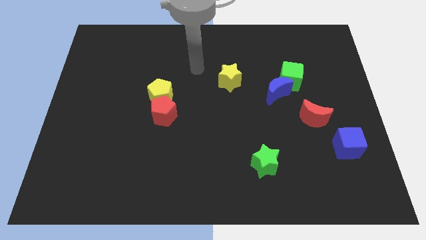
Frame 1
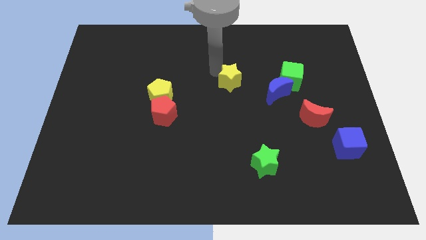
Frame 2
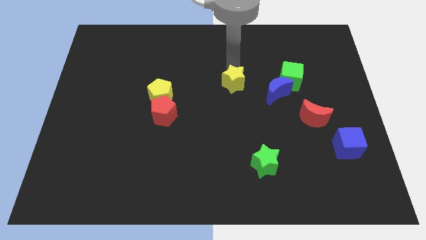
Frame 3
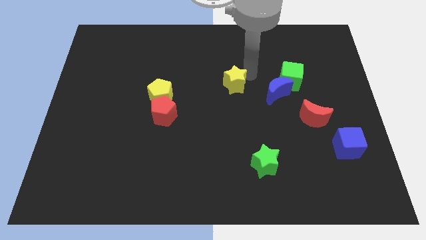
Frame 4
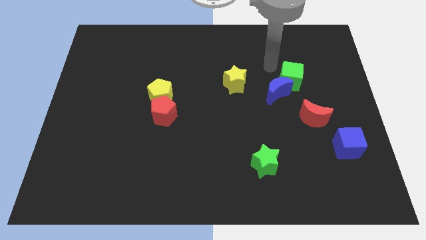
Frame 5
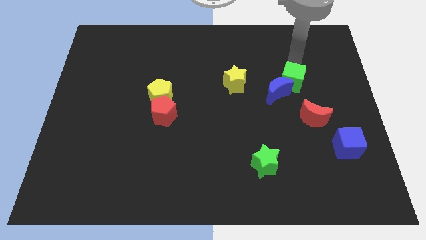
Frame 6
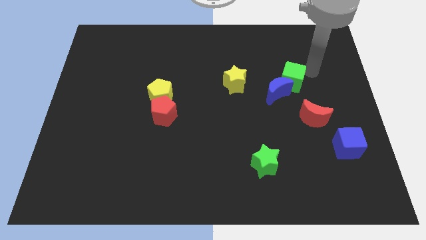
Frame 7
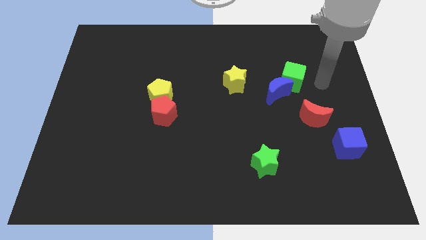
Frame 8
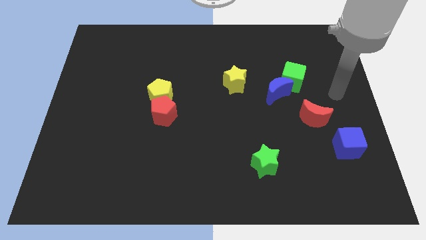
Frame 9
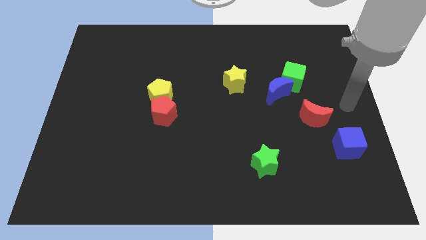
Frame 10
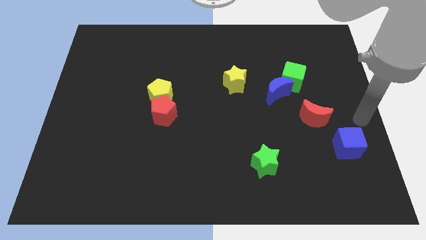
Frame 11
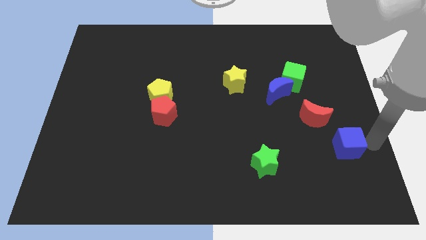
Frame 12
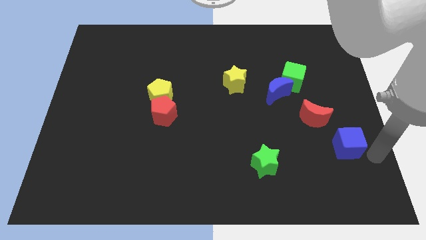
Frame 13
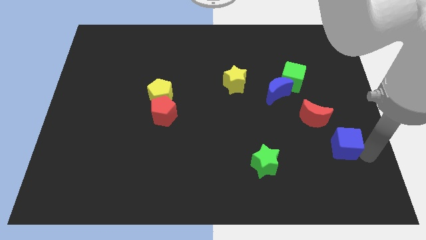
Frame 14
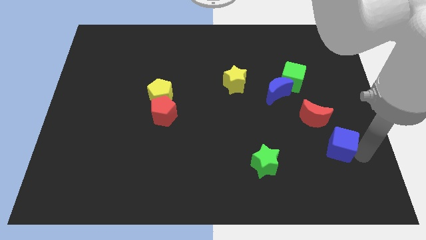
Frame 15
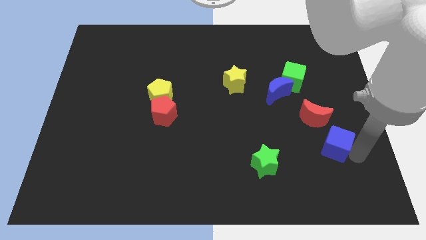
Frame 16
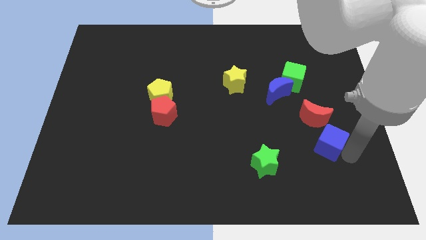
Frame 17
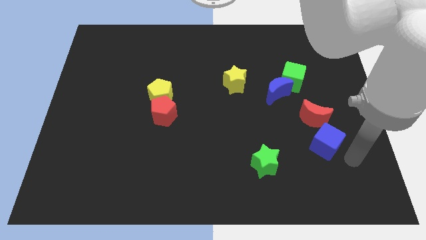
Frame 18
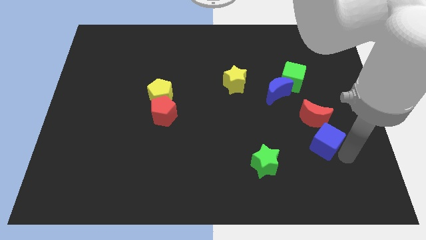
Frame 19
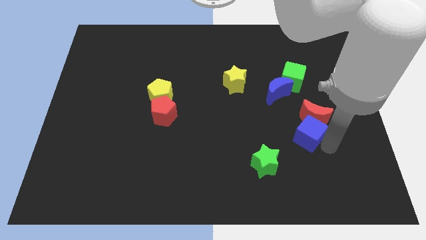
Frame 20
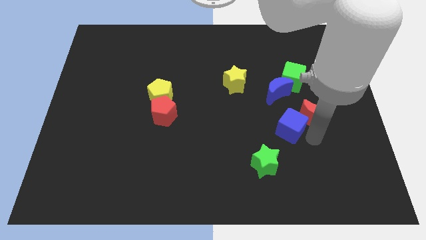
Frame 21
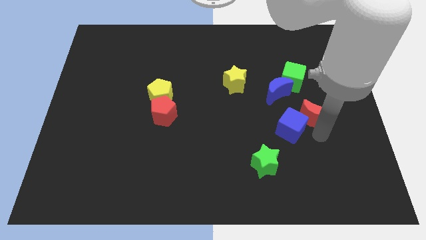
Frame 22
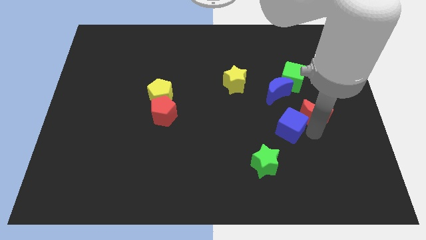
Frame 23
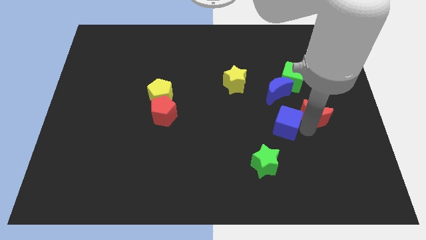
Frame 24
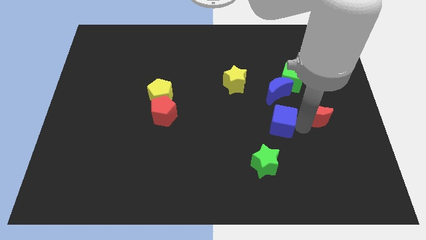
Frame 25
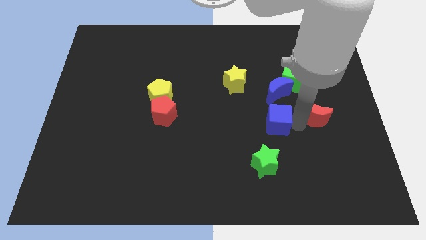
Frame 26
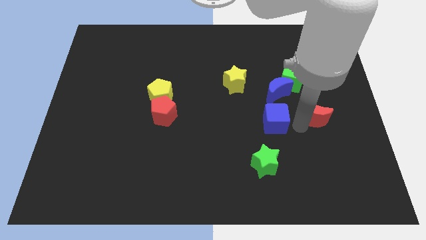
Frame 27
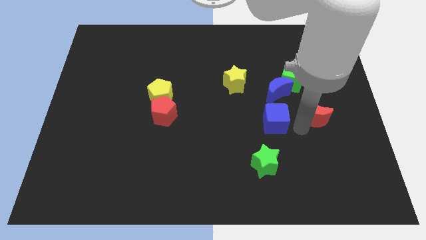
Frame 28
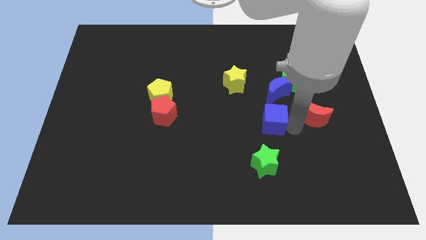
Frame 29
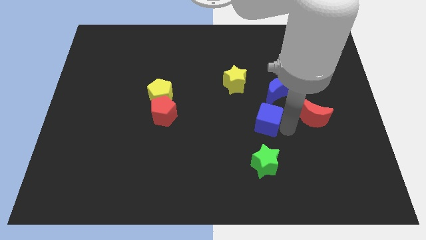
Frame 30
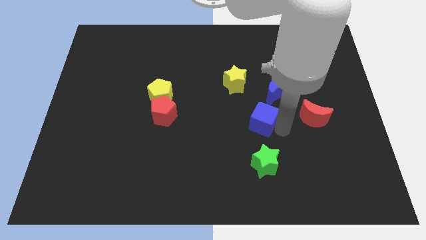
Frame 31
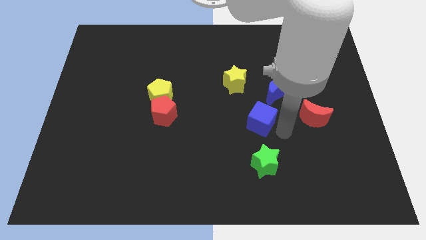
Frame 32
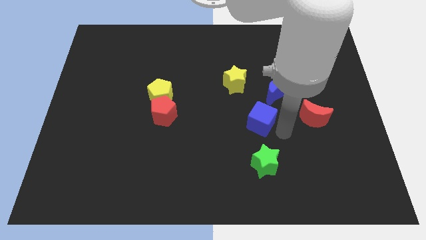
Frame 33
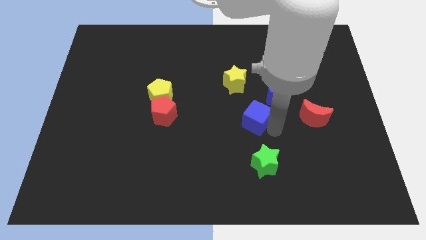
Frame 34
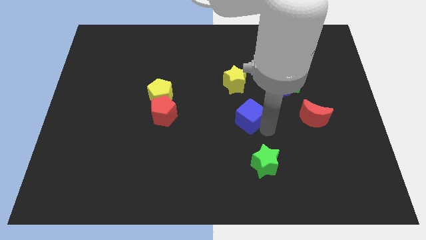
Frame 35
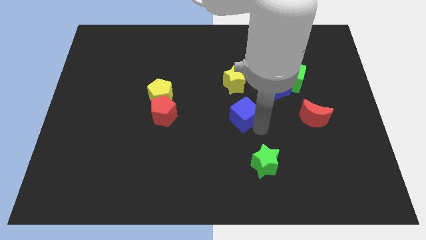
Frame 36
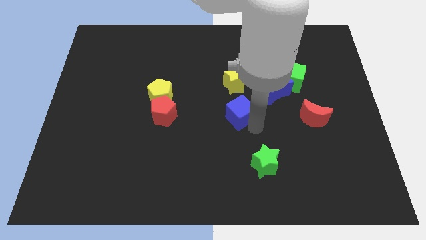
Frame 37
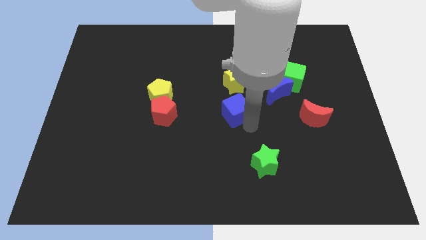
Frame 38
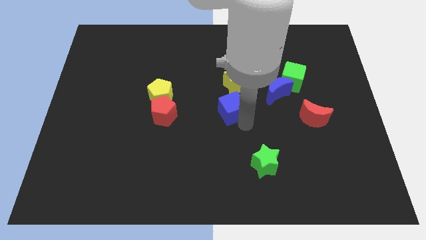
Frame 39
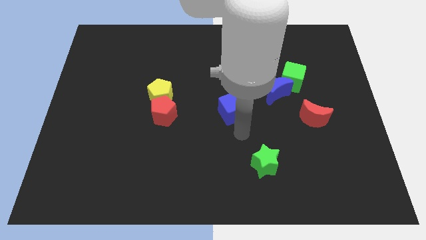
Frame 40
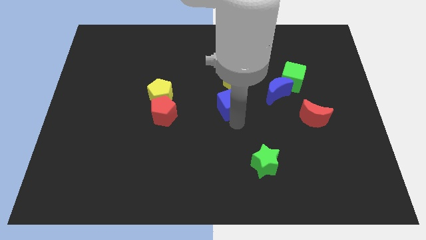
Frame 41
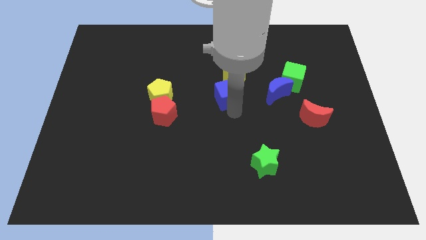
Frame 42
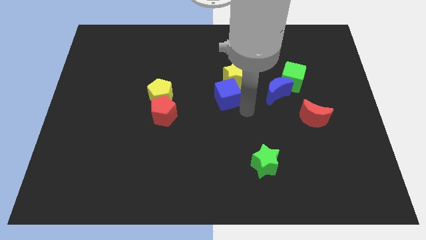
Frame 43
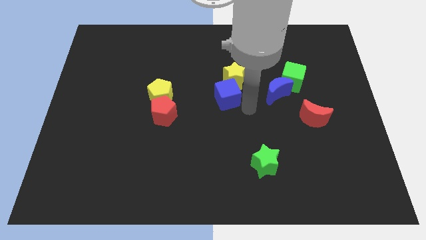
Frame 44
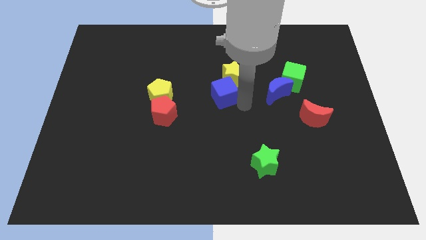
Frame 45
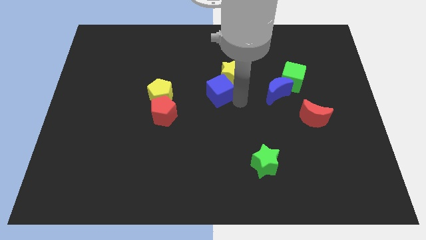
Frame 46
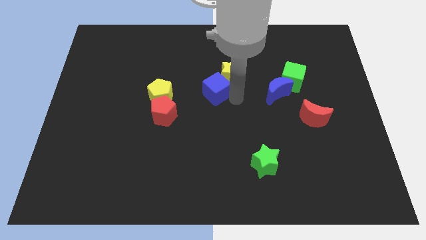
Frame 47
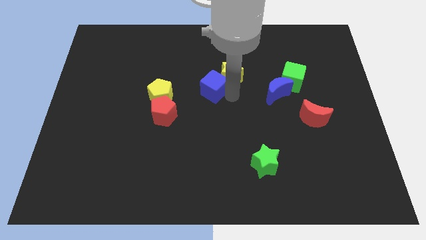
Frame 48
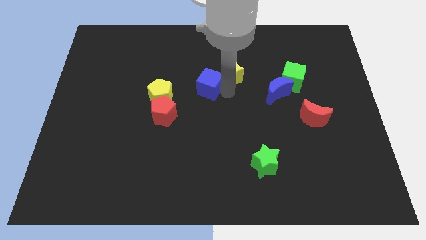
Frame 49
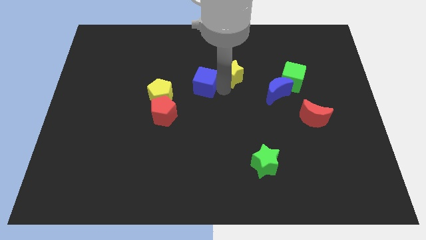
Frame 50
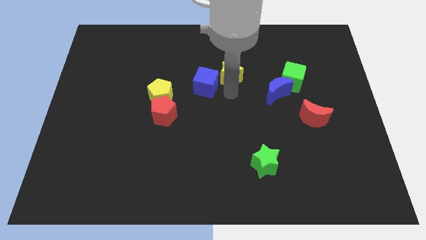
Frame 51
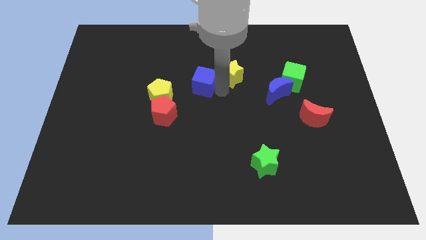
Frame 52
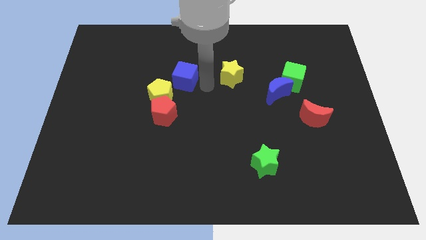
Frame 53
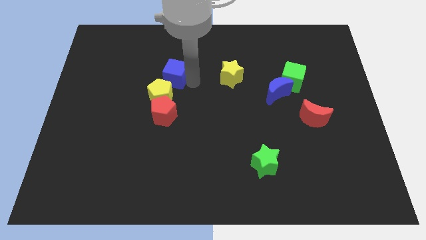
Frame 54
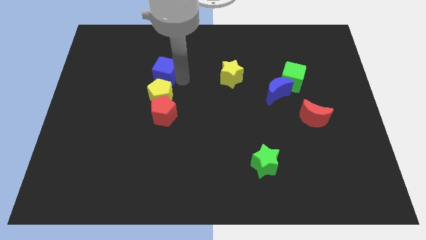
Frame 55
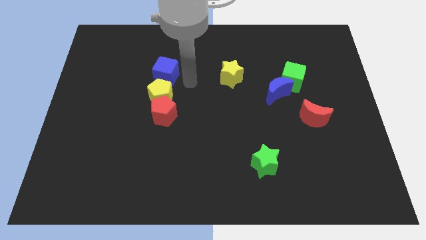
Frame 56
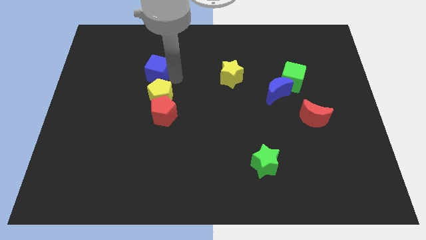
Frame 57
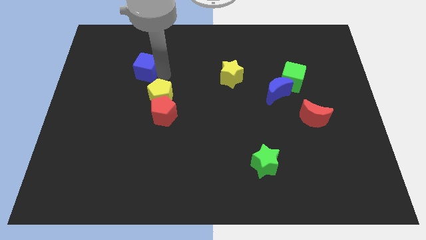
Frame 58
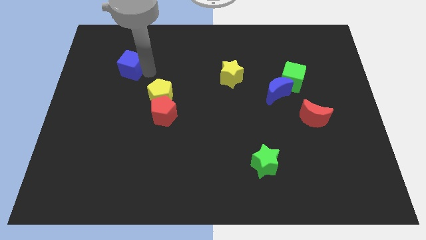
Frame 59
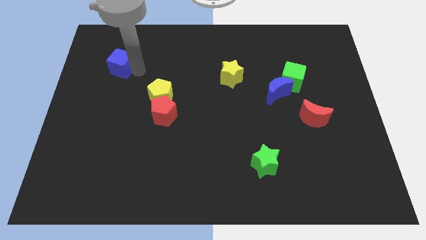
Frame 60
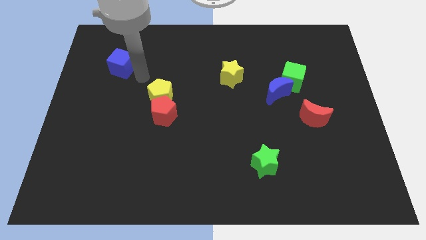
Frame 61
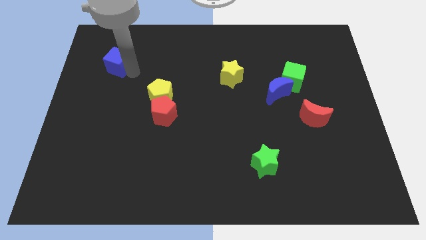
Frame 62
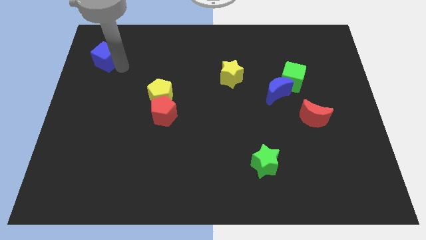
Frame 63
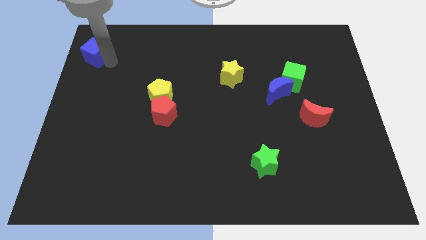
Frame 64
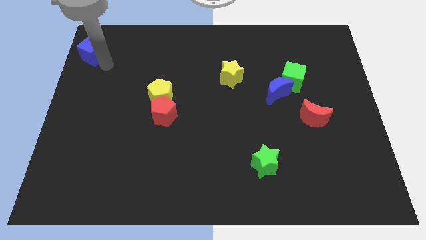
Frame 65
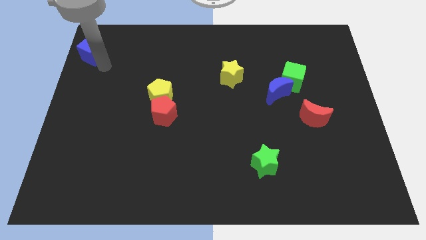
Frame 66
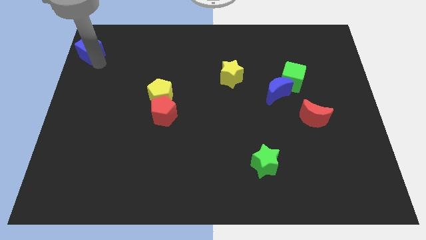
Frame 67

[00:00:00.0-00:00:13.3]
push the blue cube to the top left

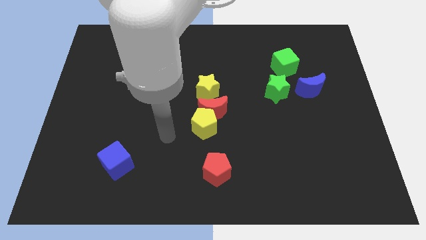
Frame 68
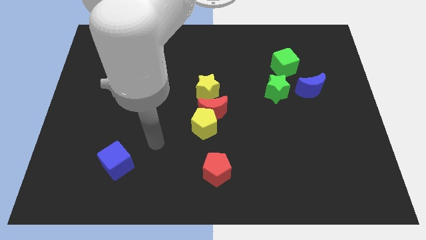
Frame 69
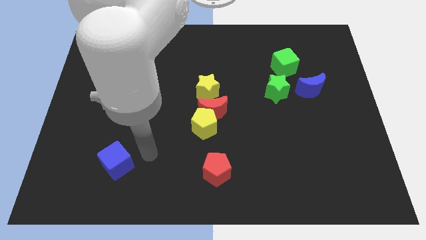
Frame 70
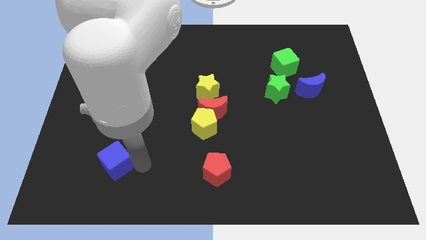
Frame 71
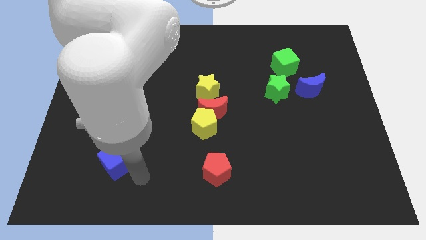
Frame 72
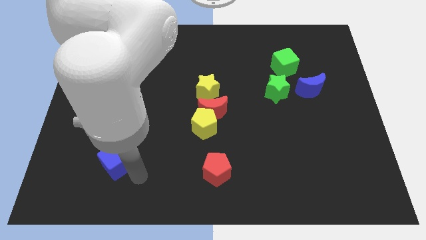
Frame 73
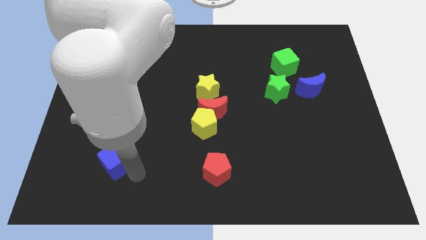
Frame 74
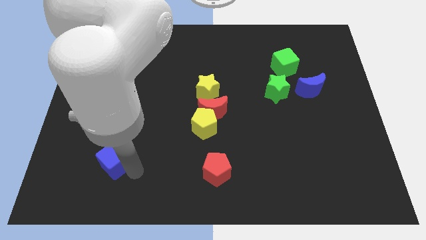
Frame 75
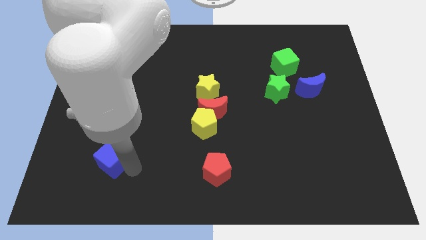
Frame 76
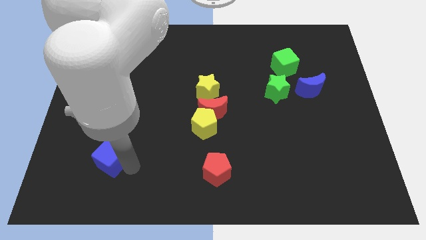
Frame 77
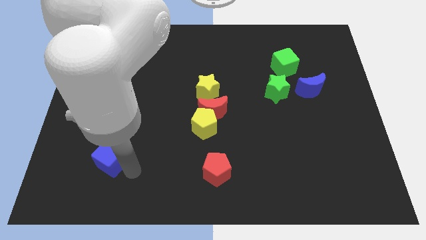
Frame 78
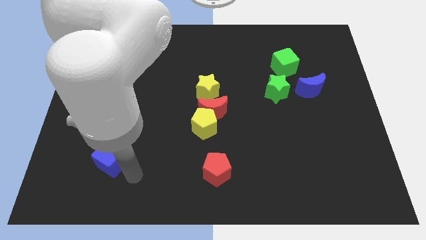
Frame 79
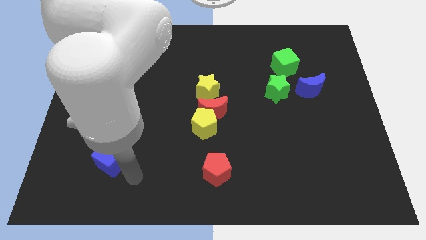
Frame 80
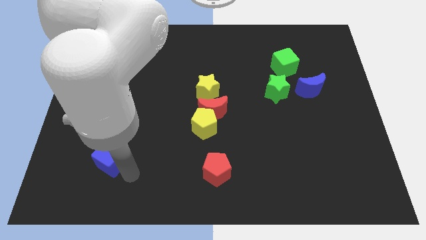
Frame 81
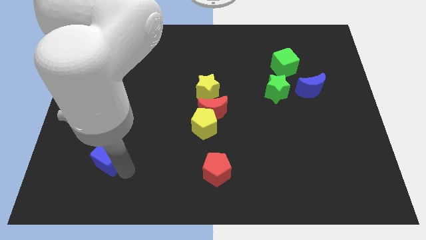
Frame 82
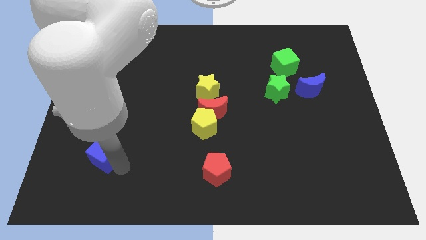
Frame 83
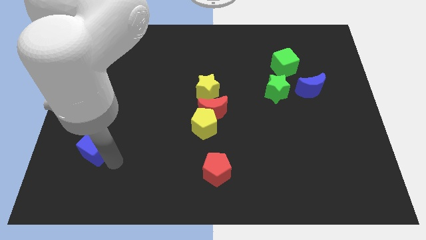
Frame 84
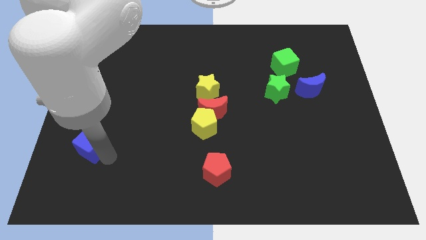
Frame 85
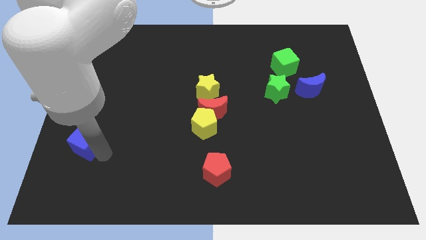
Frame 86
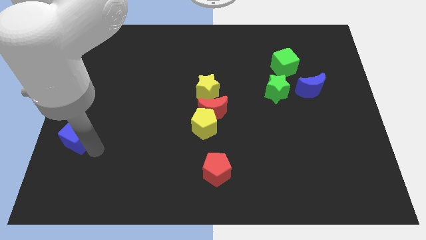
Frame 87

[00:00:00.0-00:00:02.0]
slide the blue cube to the left side of the board
